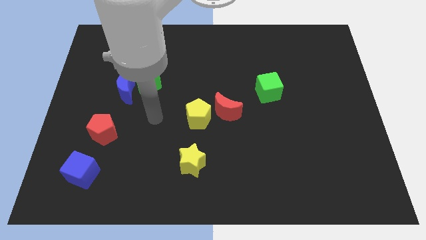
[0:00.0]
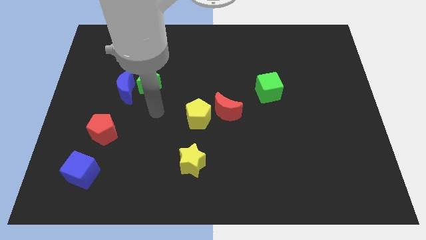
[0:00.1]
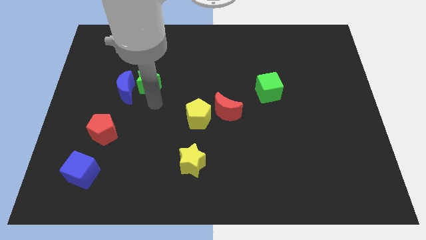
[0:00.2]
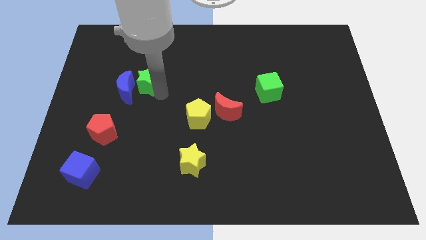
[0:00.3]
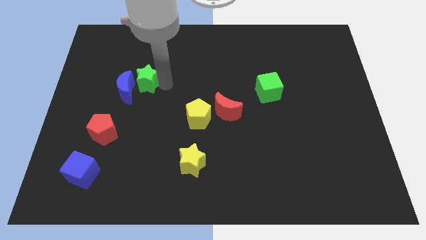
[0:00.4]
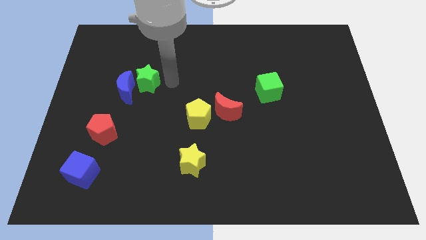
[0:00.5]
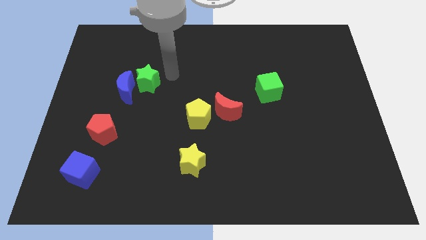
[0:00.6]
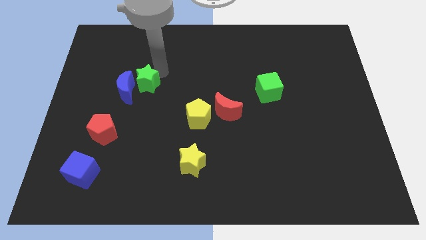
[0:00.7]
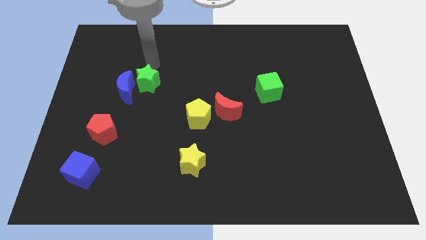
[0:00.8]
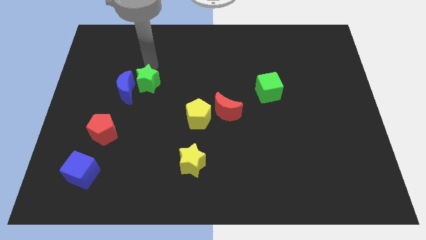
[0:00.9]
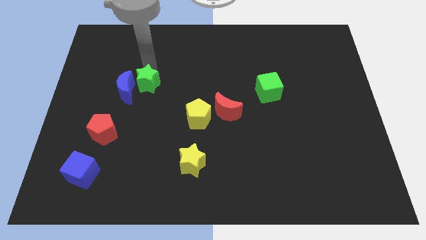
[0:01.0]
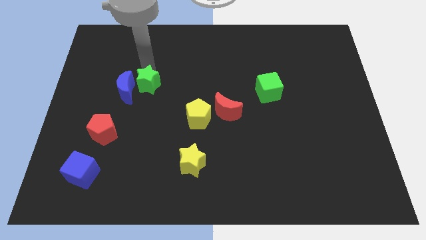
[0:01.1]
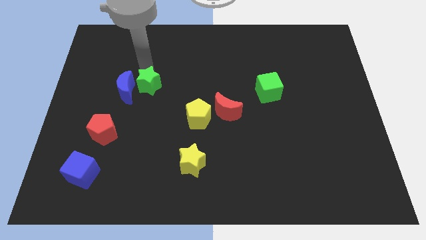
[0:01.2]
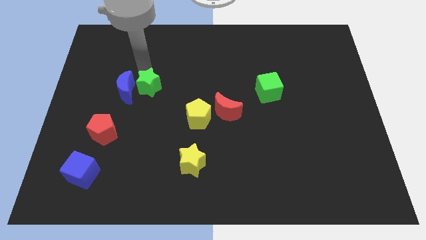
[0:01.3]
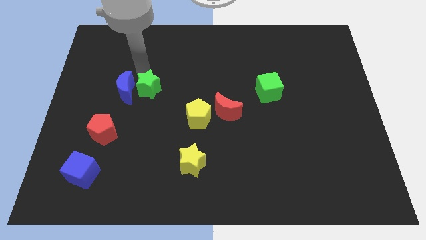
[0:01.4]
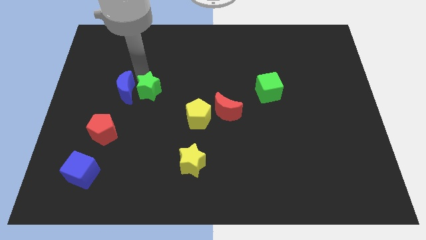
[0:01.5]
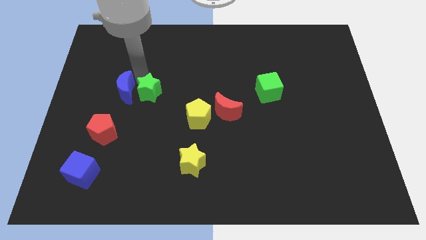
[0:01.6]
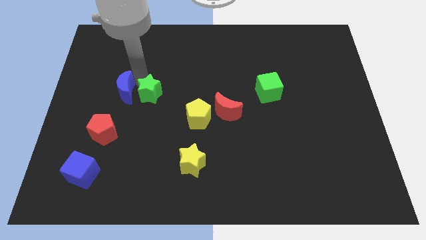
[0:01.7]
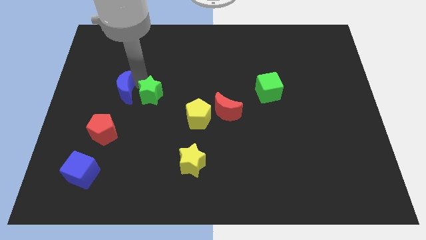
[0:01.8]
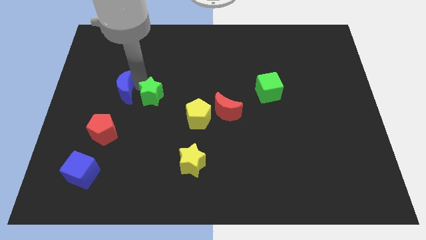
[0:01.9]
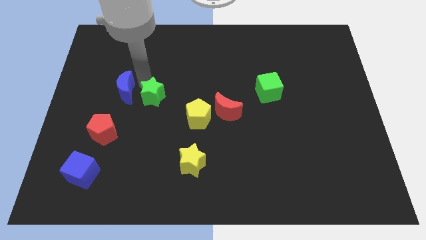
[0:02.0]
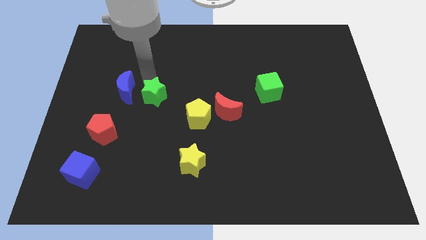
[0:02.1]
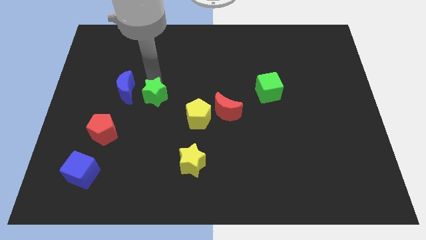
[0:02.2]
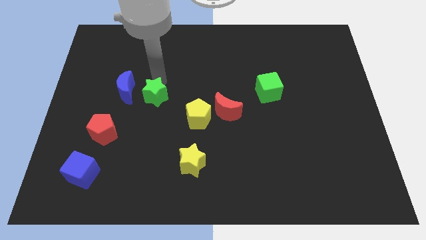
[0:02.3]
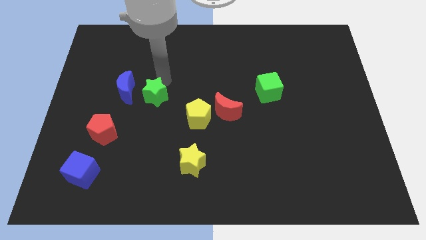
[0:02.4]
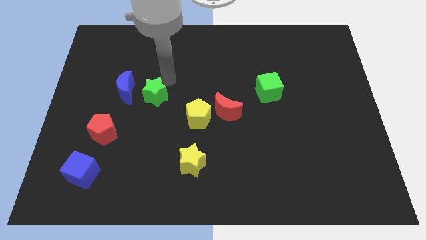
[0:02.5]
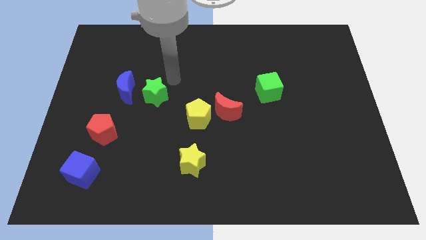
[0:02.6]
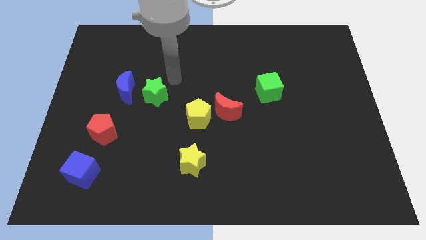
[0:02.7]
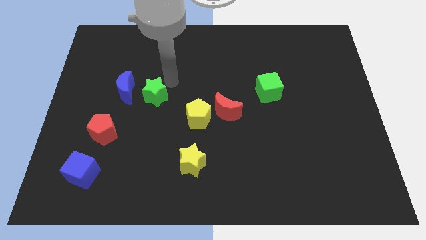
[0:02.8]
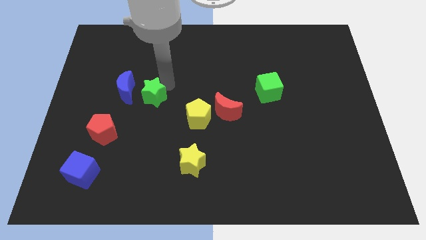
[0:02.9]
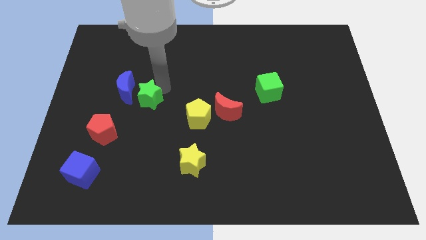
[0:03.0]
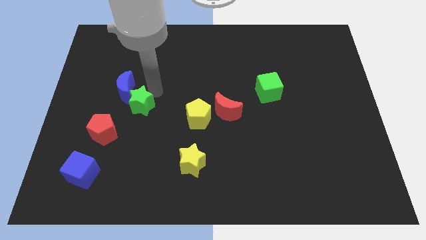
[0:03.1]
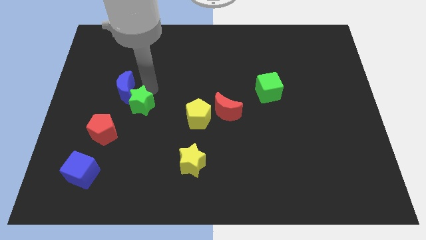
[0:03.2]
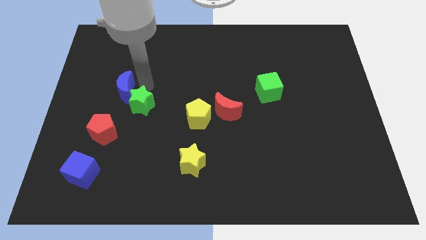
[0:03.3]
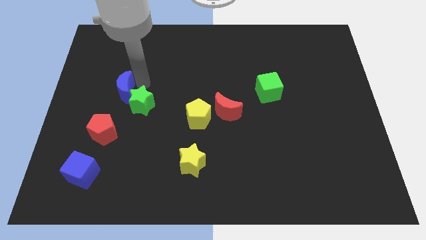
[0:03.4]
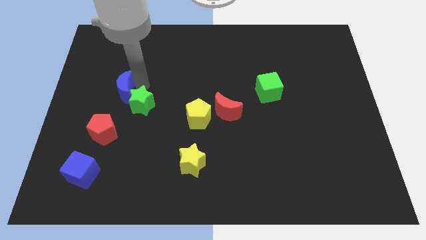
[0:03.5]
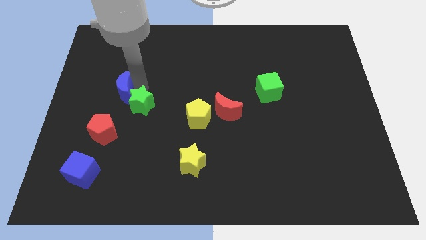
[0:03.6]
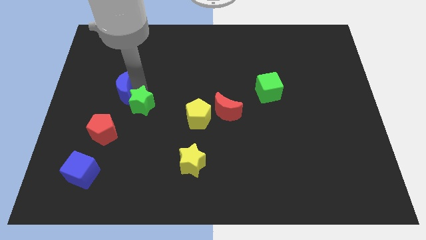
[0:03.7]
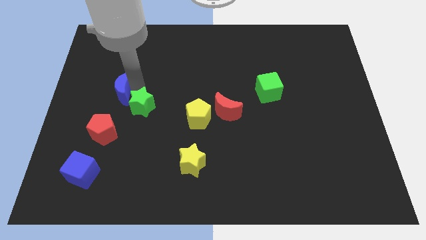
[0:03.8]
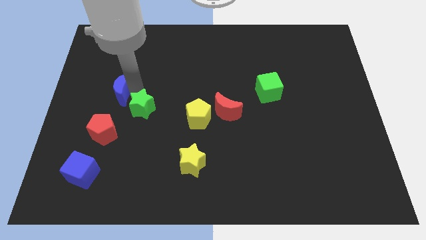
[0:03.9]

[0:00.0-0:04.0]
slide the green star downwards somewhat

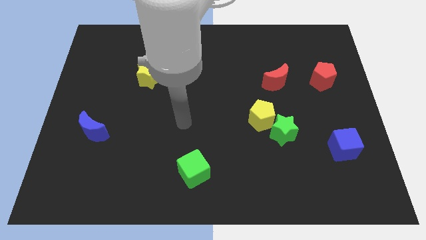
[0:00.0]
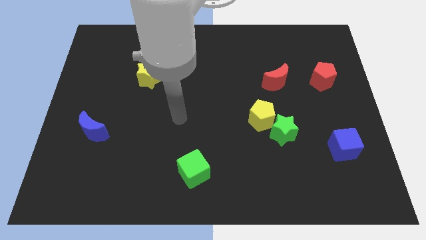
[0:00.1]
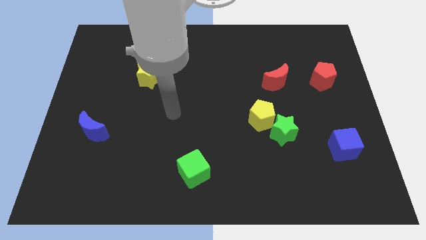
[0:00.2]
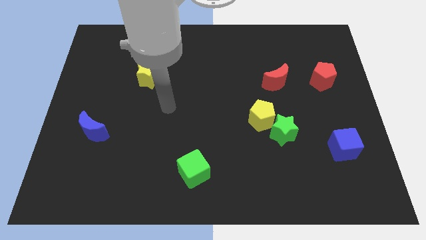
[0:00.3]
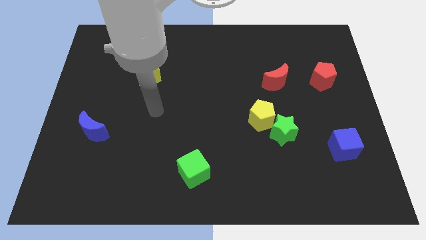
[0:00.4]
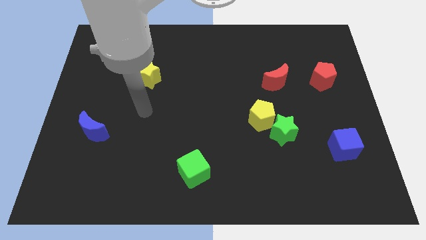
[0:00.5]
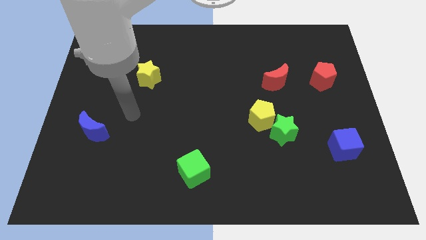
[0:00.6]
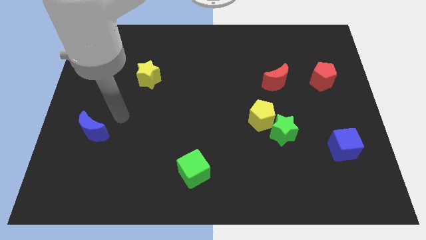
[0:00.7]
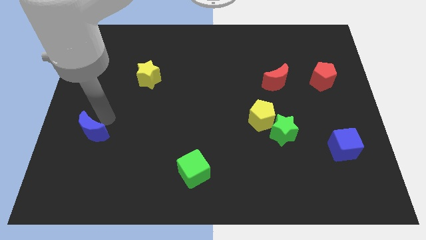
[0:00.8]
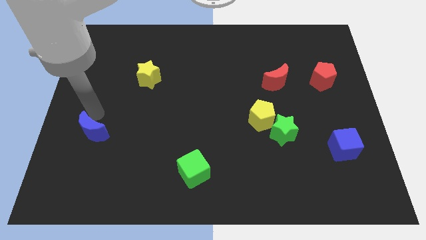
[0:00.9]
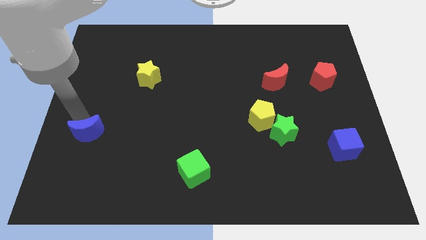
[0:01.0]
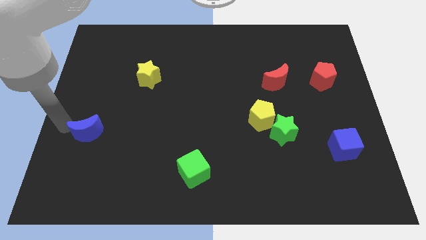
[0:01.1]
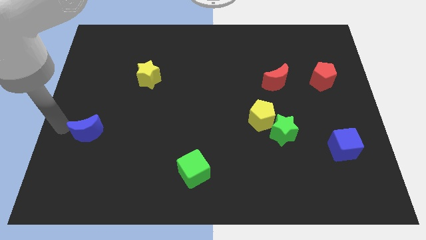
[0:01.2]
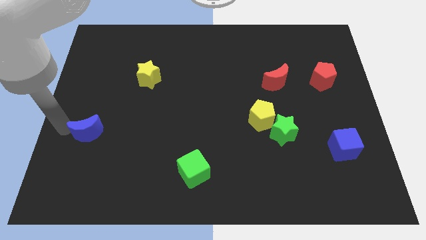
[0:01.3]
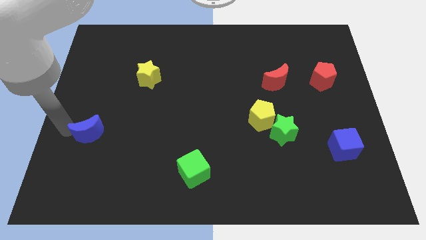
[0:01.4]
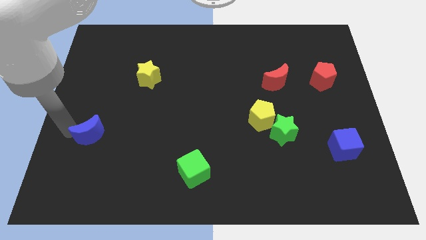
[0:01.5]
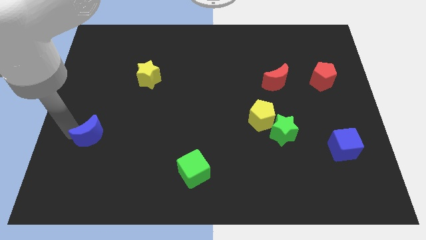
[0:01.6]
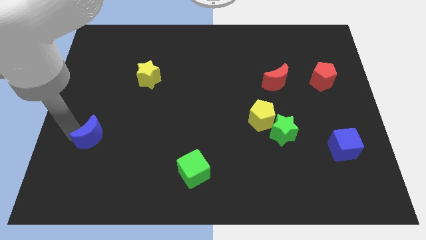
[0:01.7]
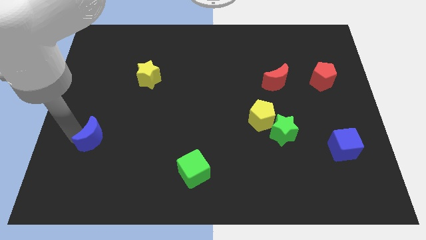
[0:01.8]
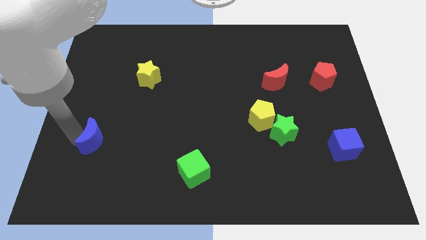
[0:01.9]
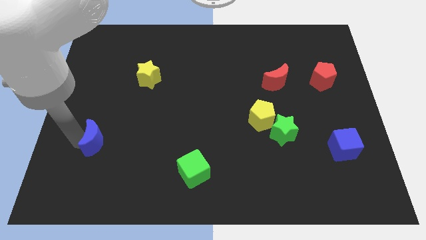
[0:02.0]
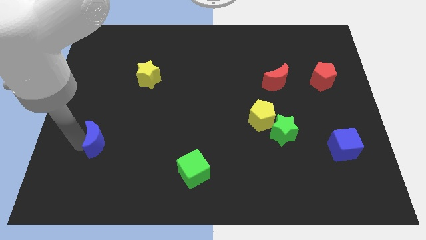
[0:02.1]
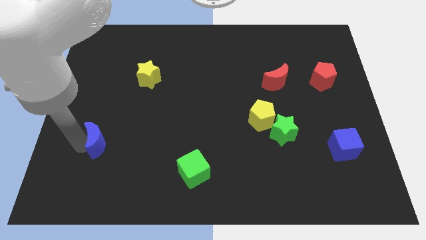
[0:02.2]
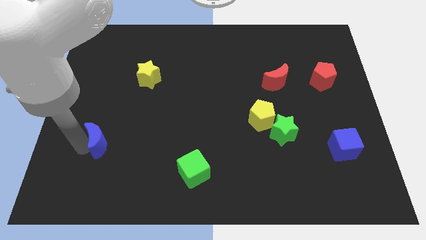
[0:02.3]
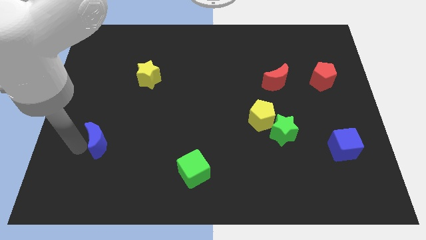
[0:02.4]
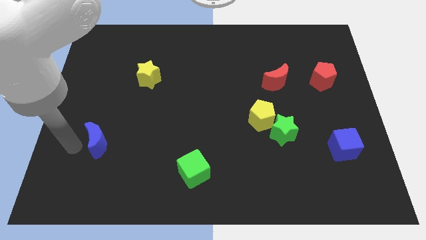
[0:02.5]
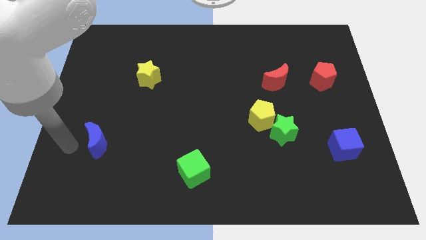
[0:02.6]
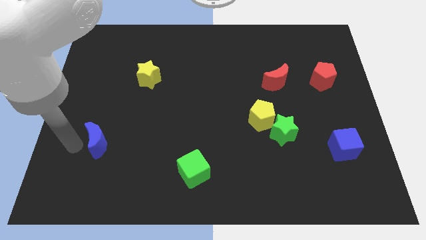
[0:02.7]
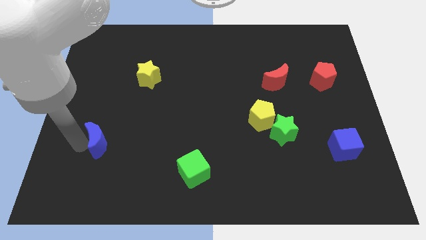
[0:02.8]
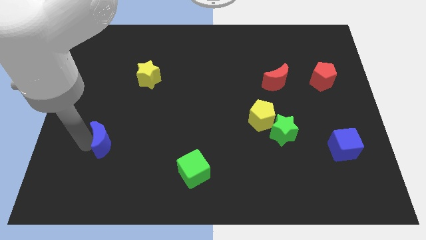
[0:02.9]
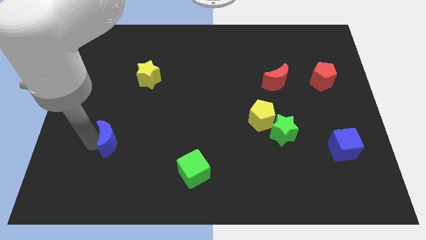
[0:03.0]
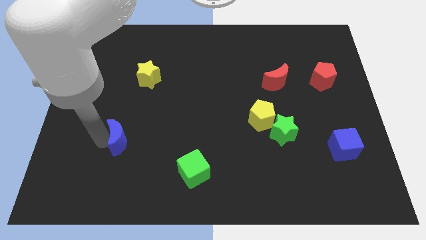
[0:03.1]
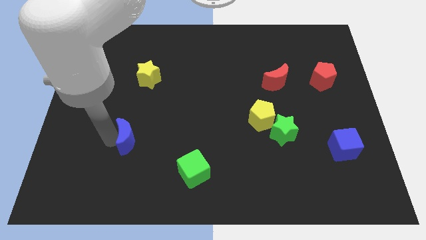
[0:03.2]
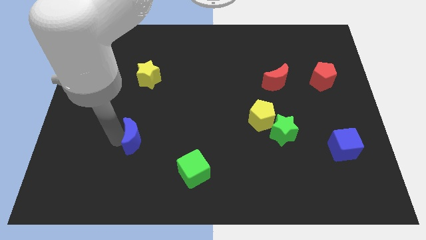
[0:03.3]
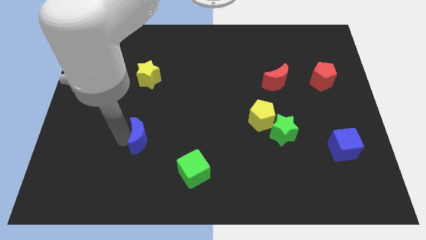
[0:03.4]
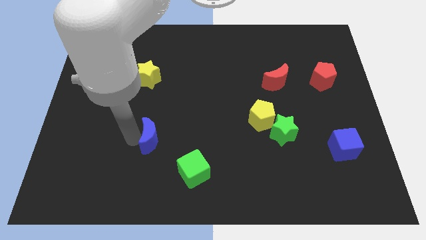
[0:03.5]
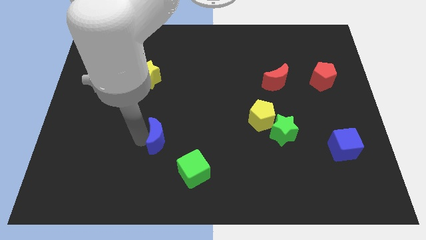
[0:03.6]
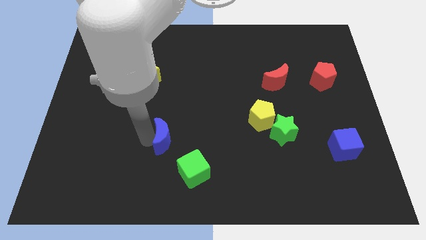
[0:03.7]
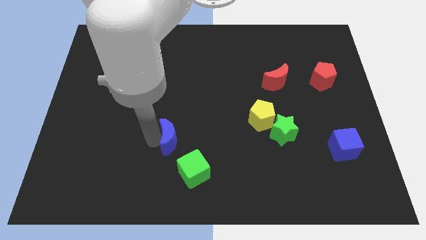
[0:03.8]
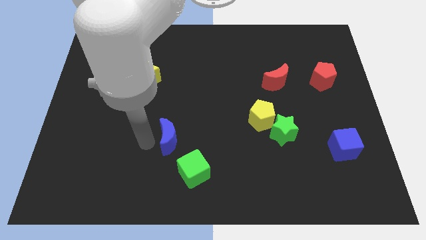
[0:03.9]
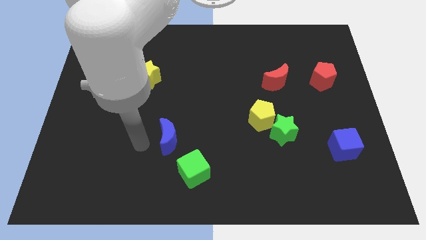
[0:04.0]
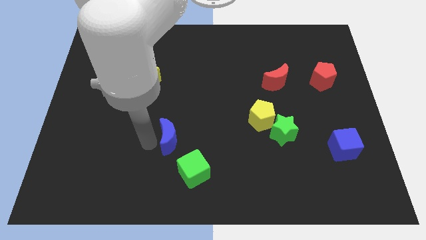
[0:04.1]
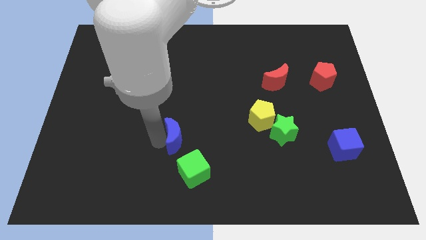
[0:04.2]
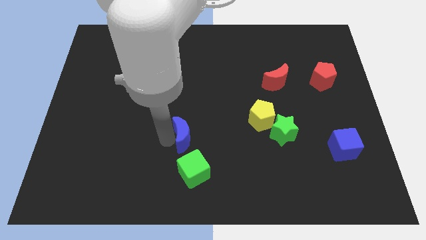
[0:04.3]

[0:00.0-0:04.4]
move the blue moon right
